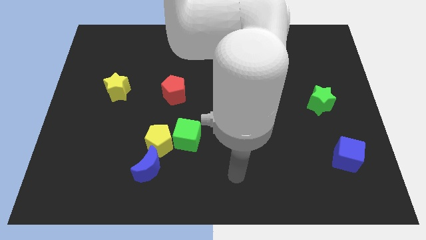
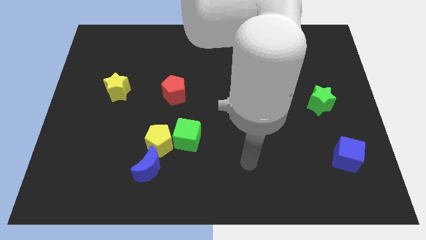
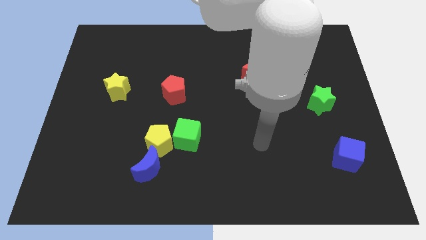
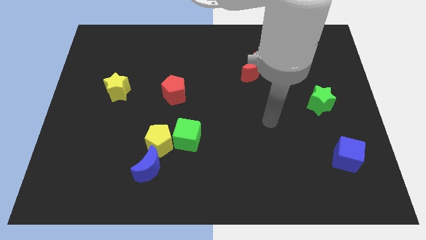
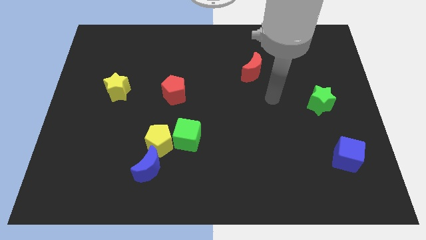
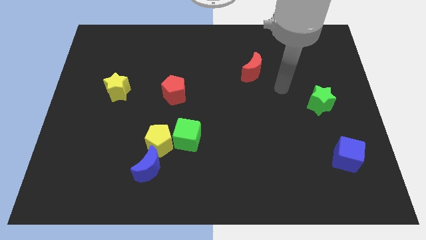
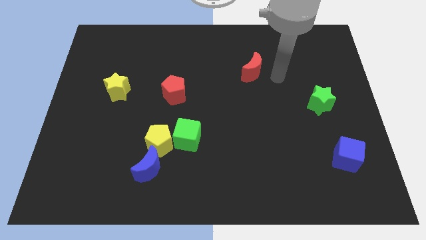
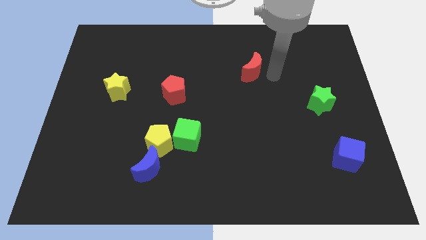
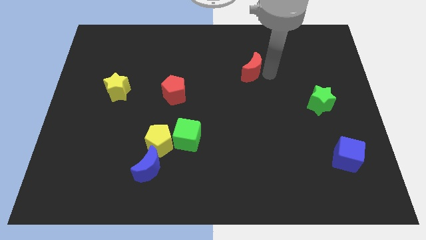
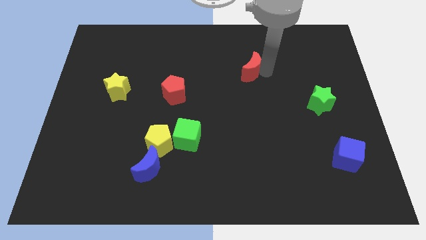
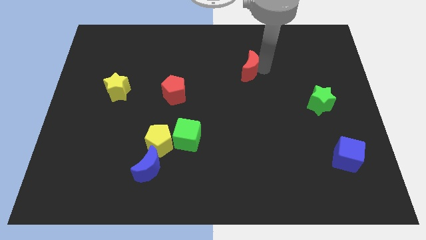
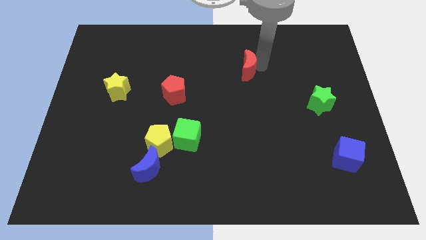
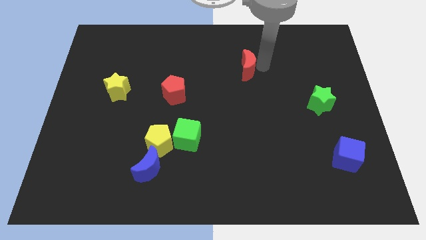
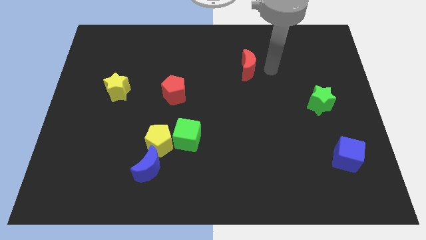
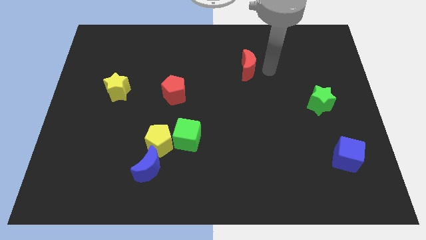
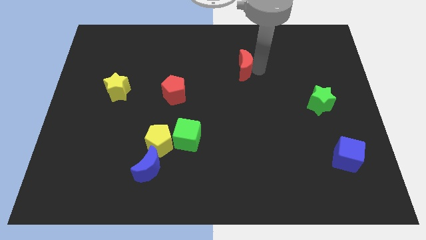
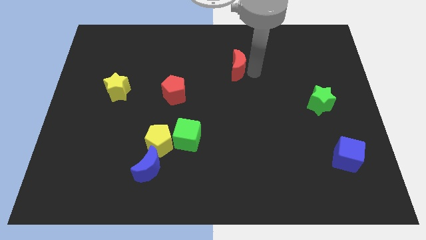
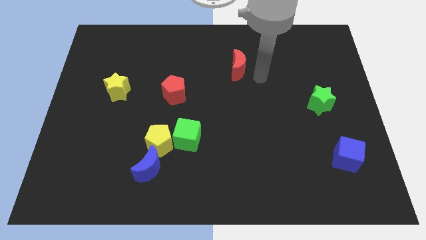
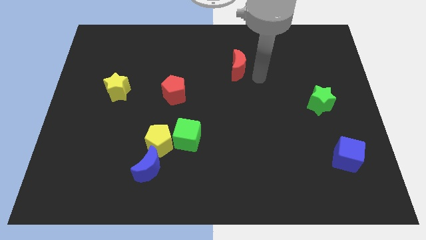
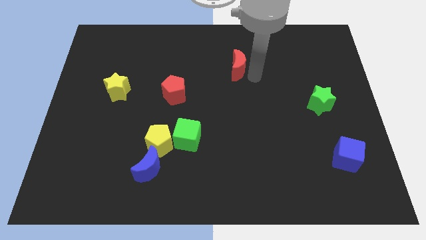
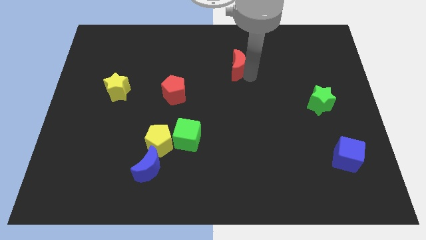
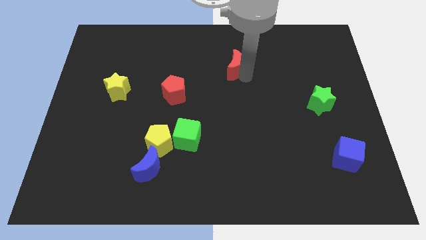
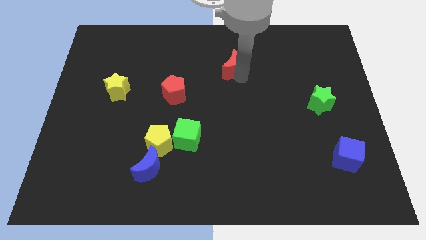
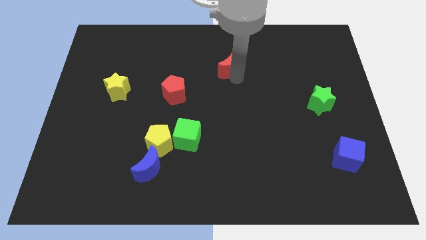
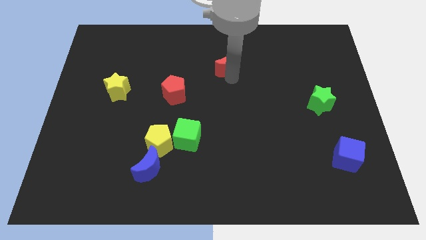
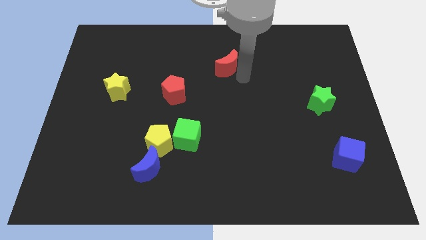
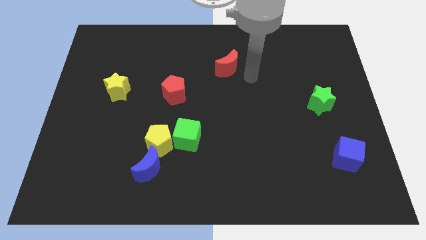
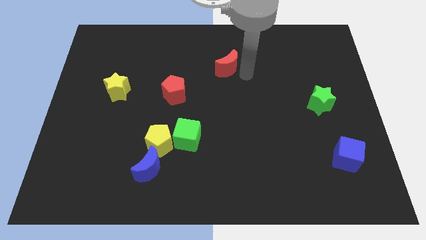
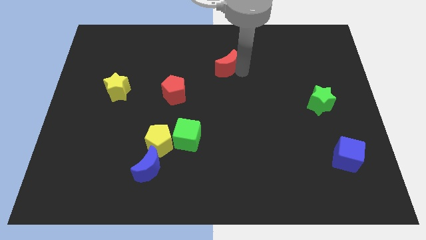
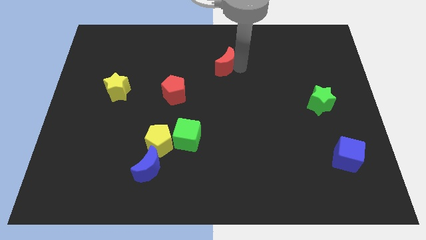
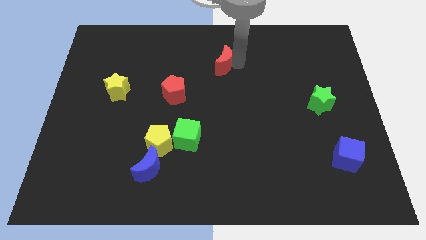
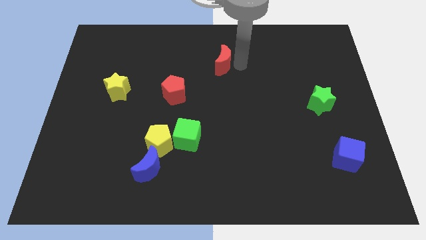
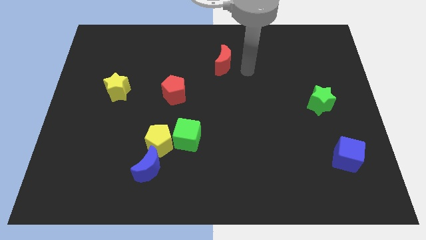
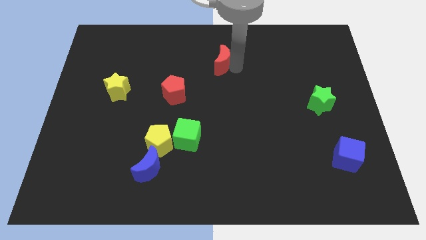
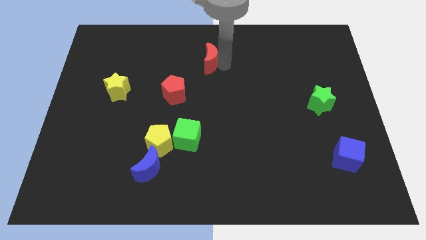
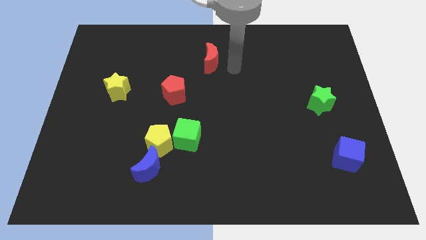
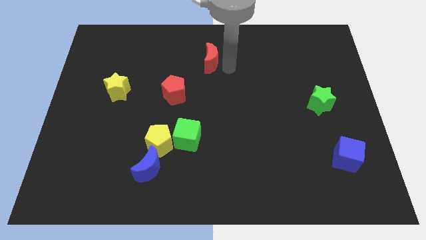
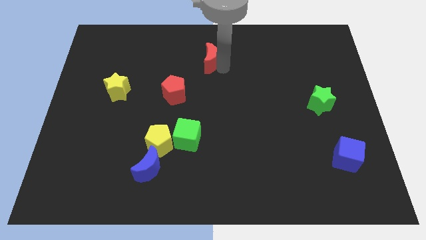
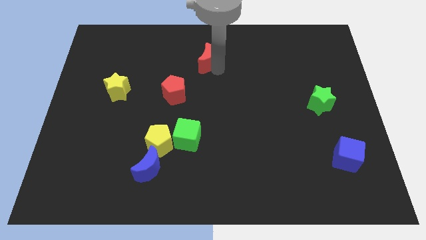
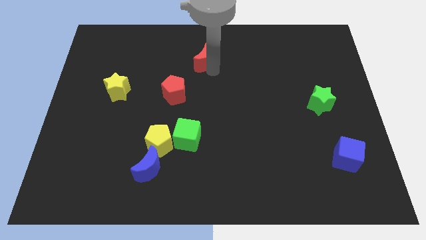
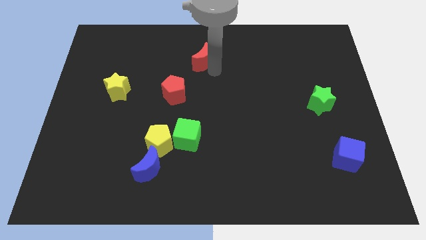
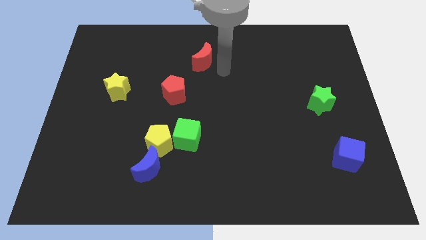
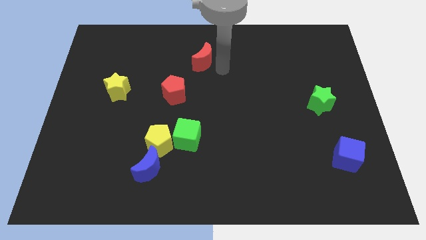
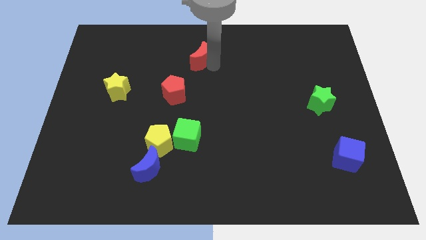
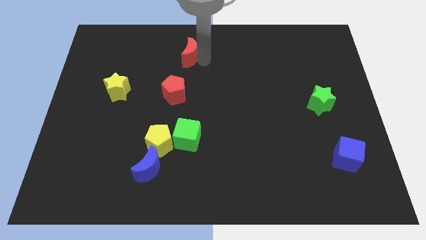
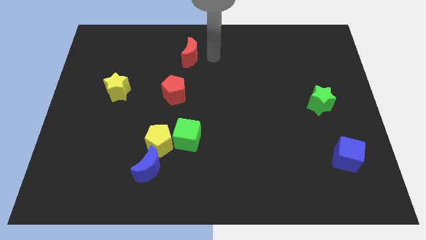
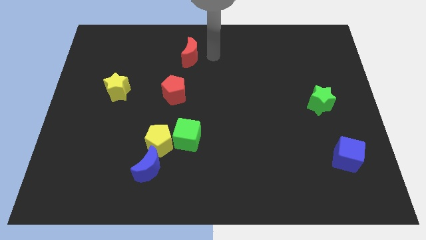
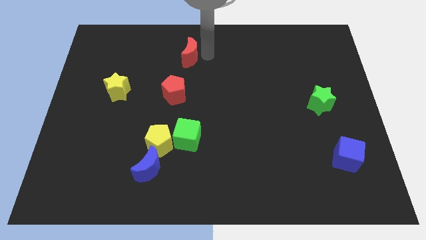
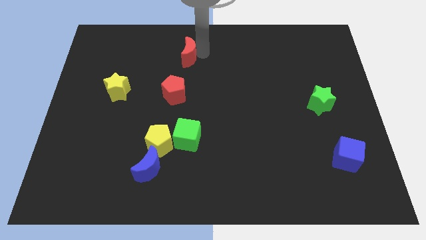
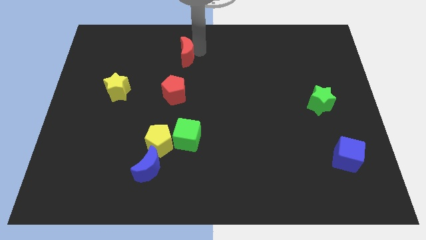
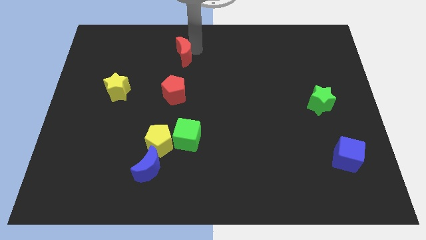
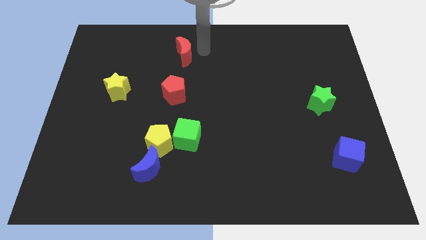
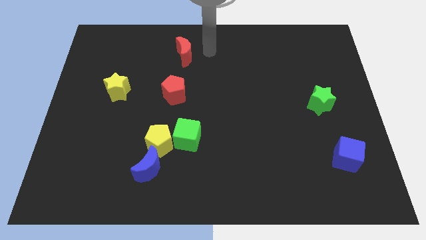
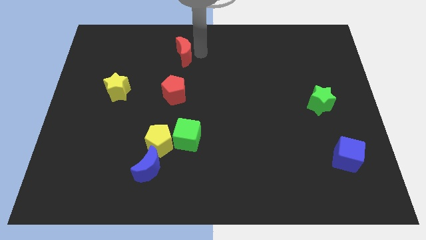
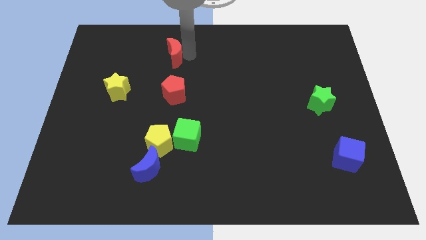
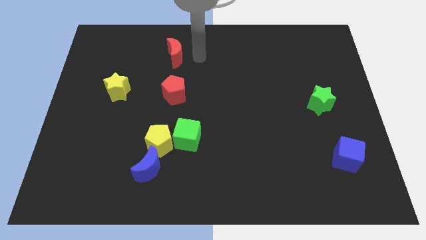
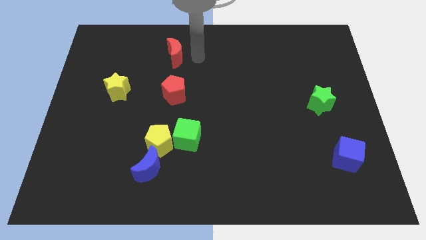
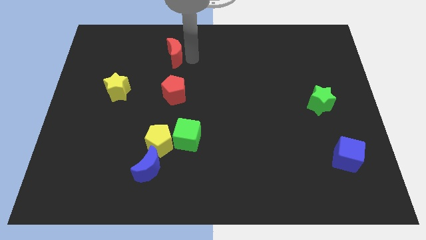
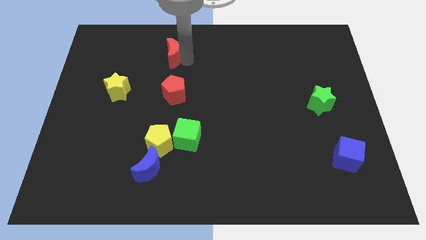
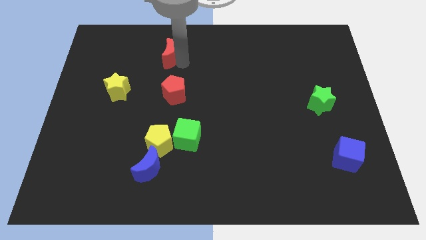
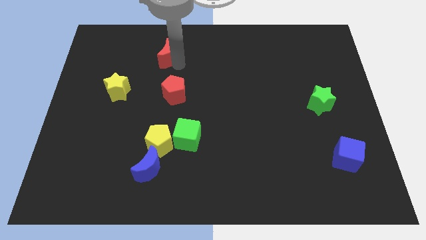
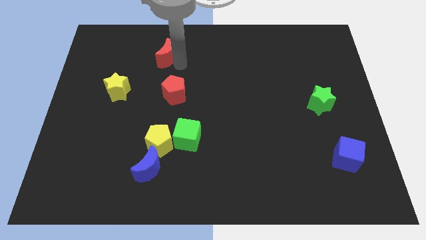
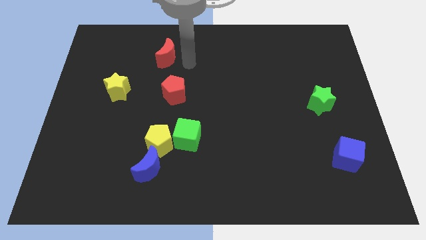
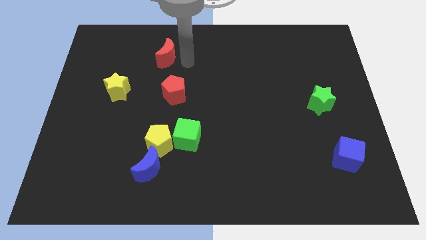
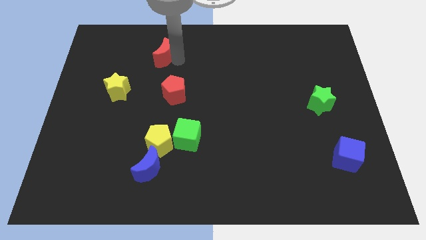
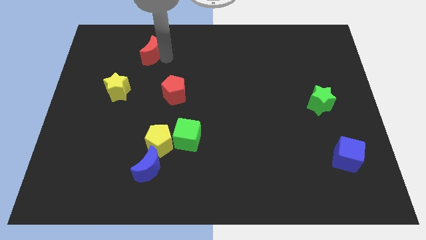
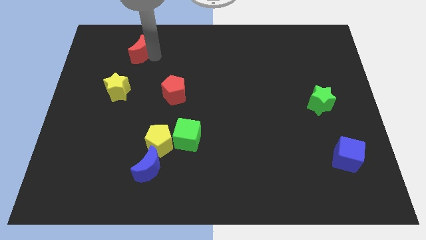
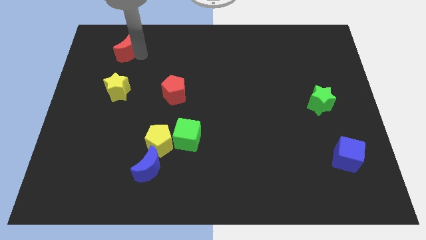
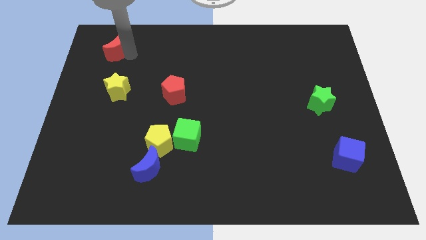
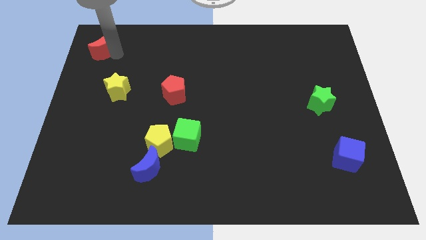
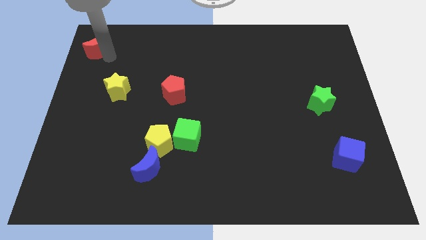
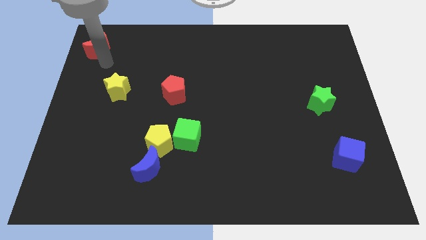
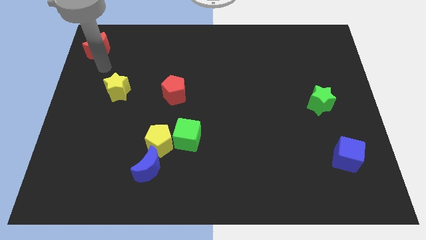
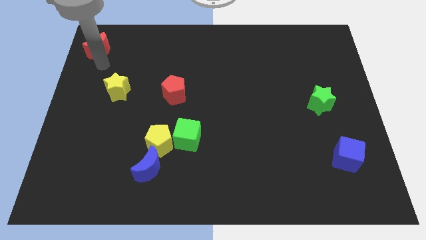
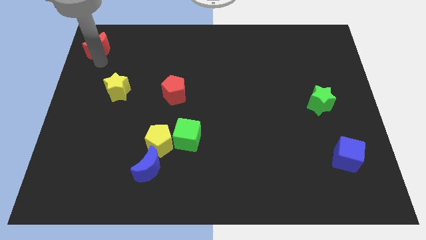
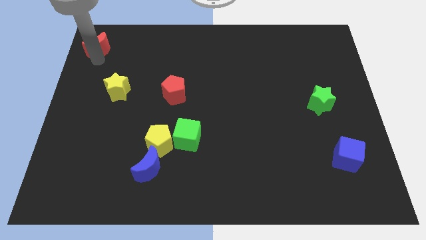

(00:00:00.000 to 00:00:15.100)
slide the red moon to the top left corner
